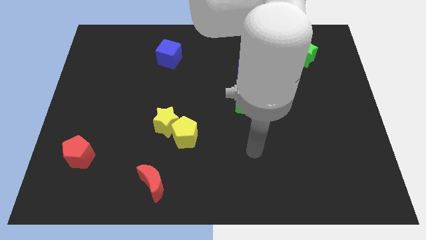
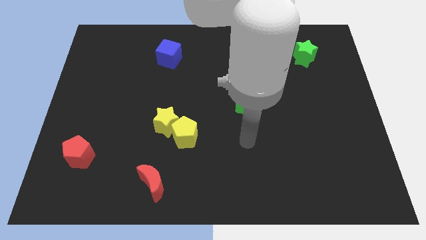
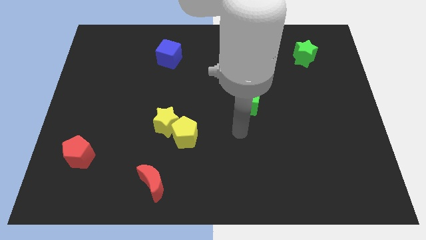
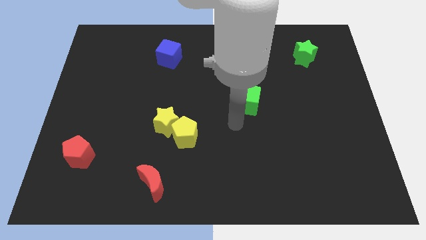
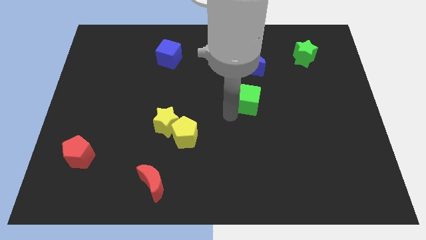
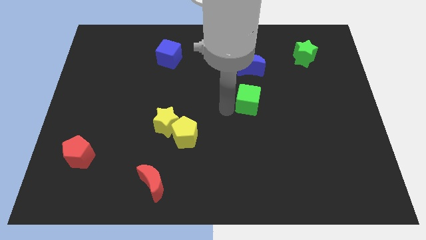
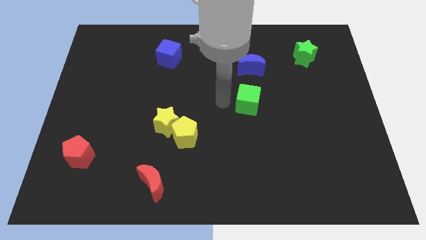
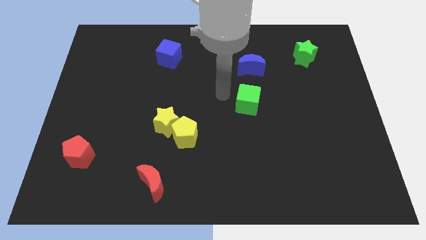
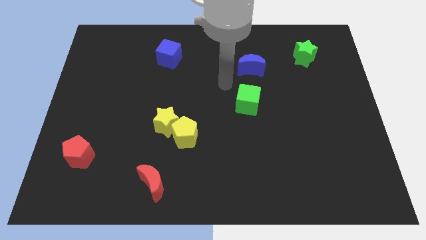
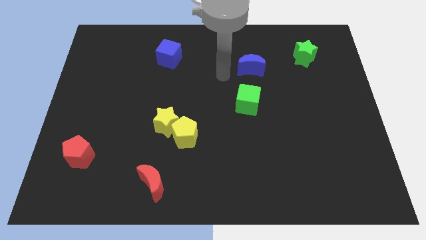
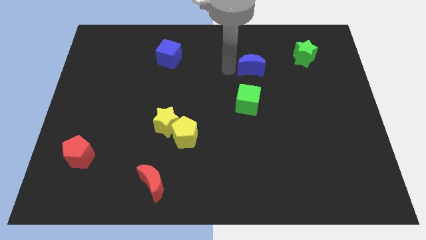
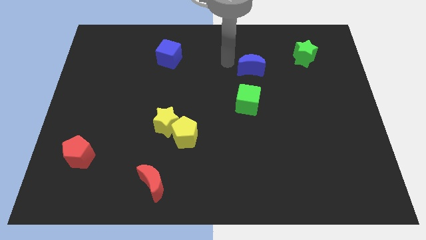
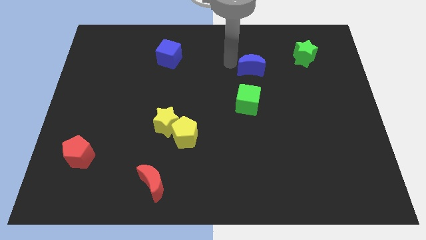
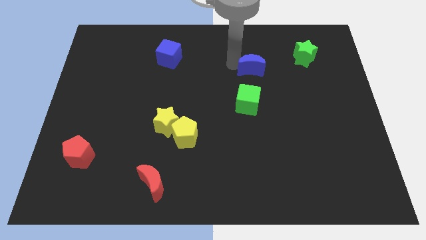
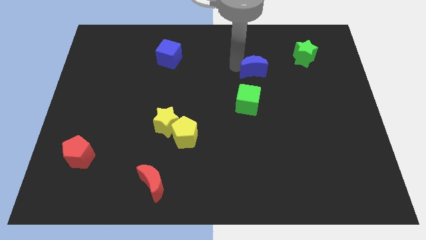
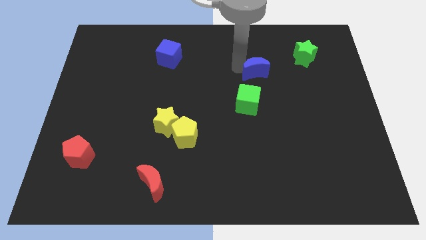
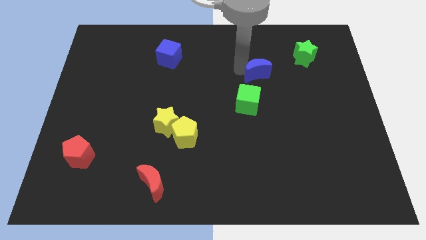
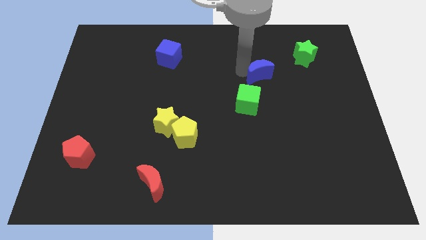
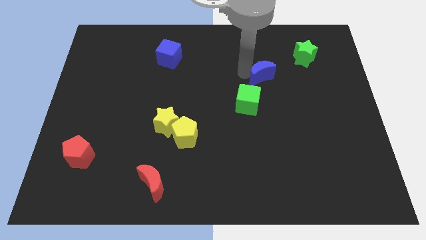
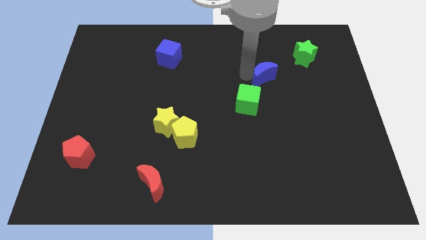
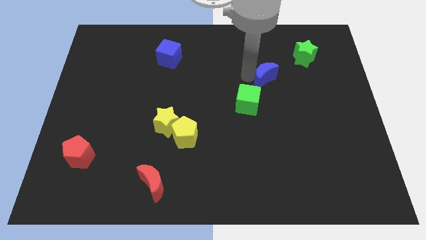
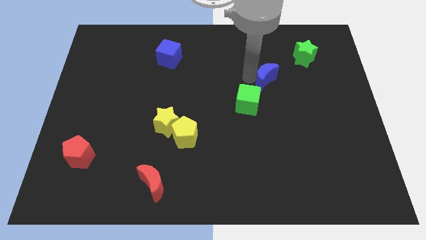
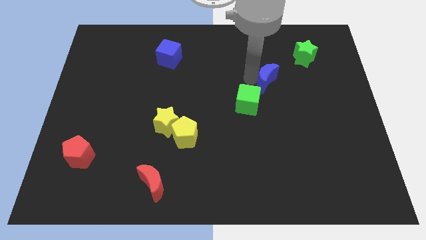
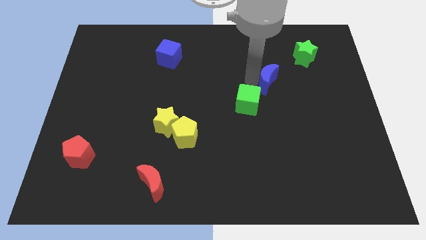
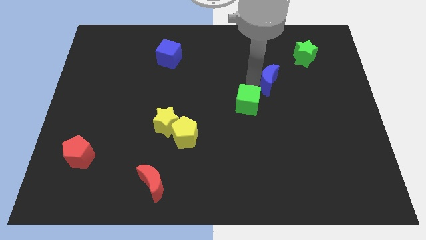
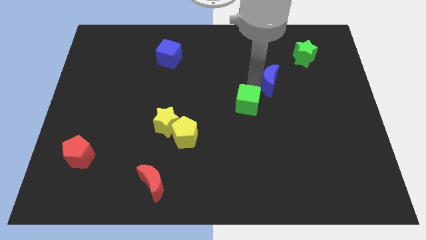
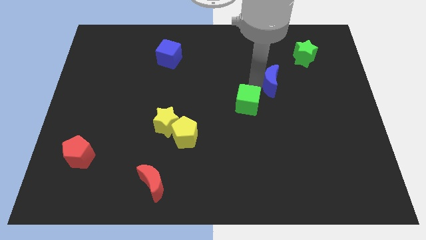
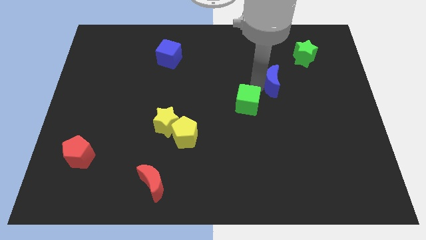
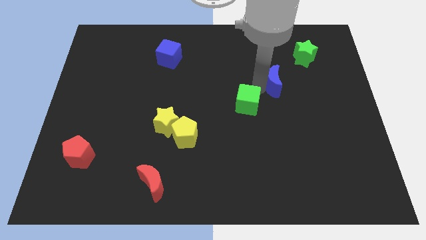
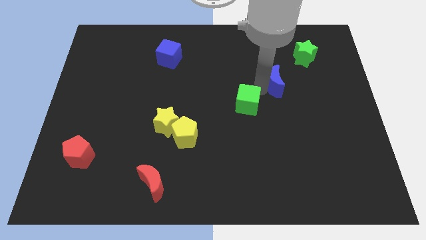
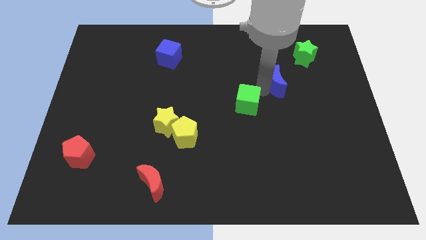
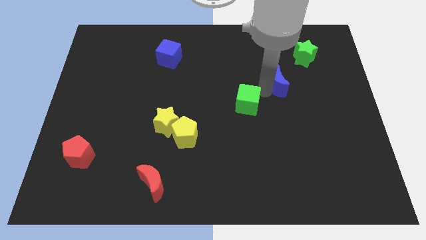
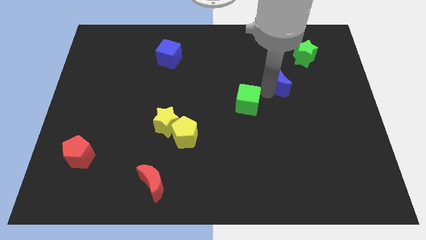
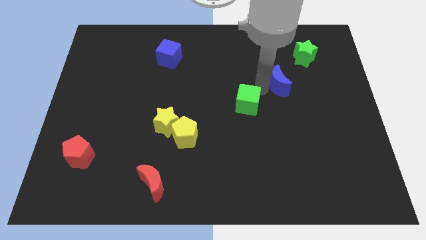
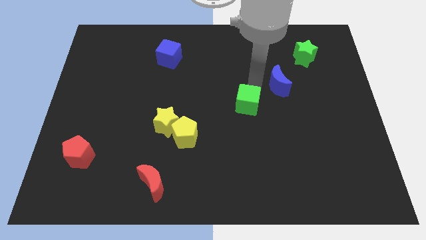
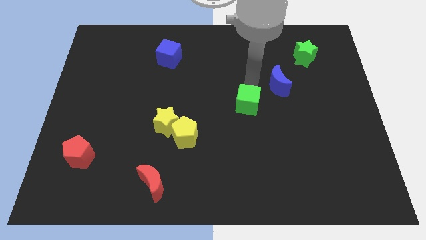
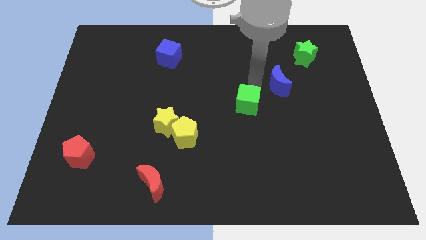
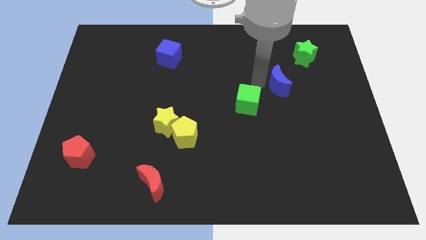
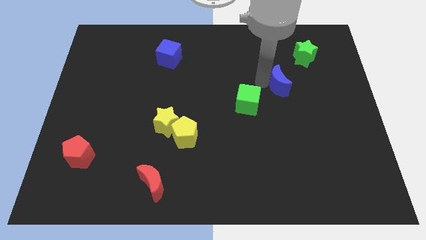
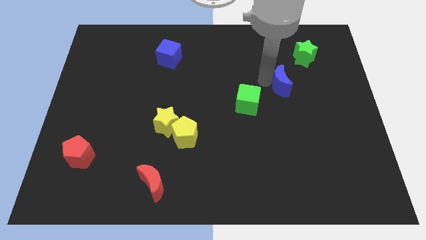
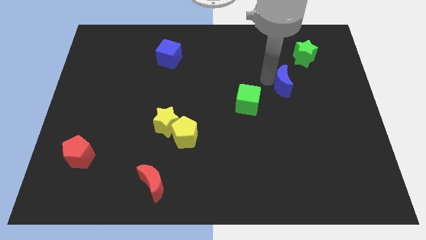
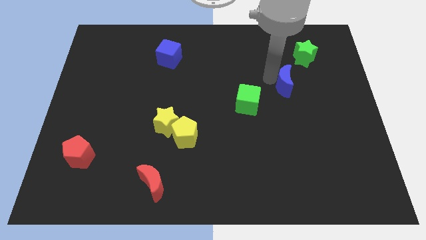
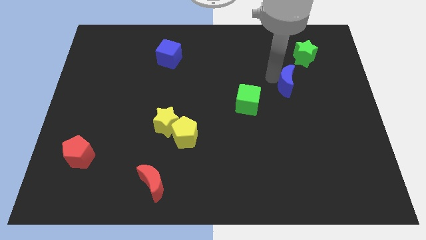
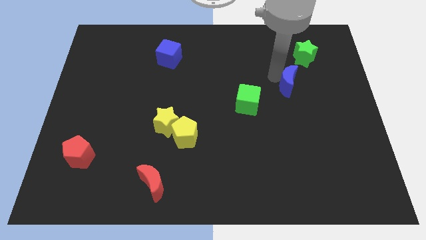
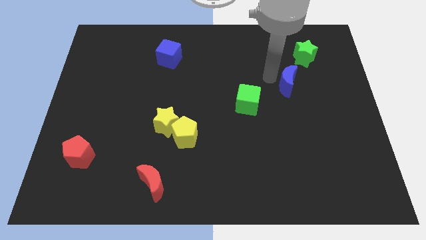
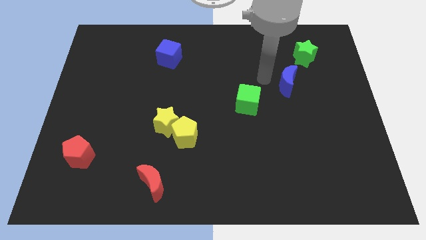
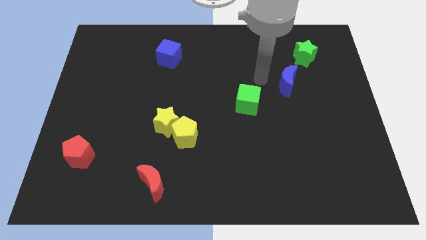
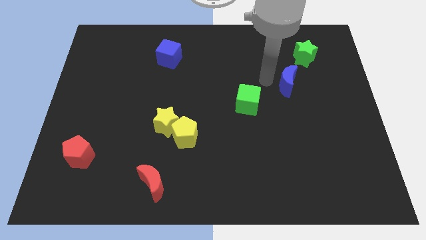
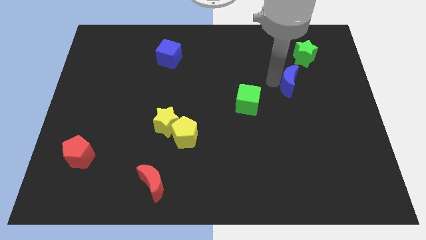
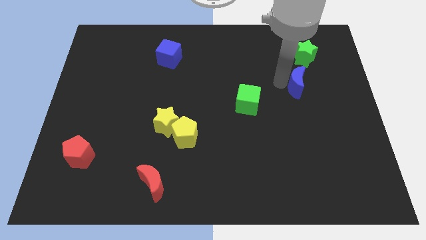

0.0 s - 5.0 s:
slide the blue moon to the bottom of the green star

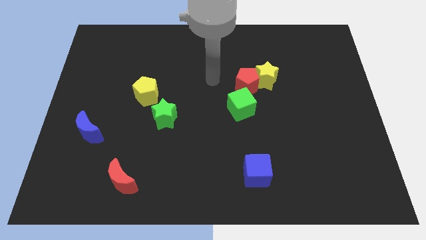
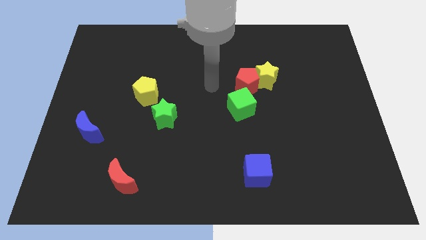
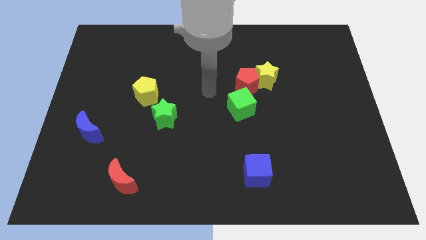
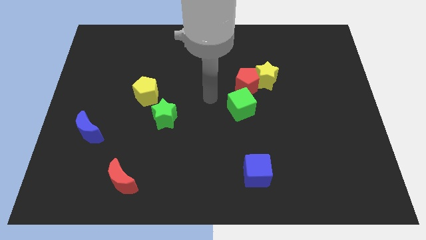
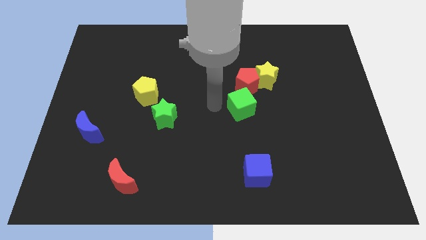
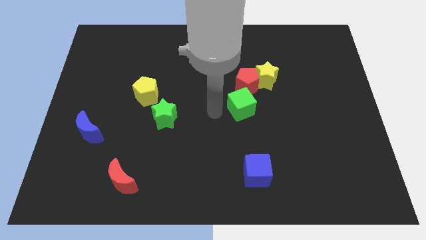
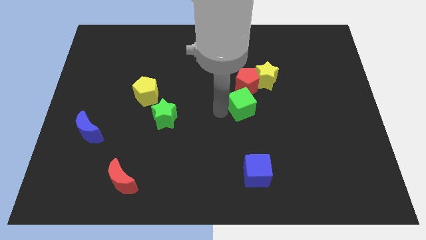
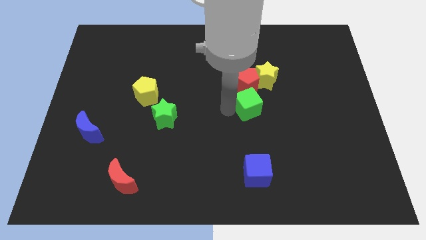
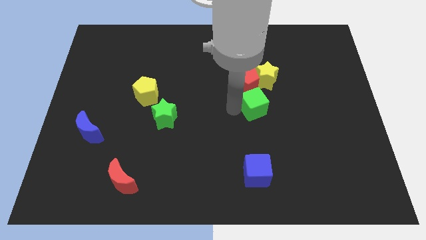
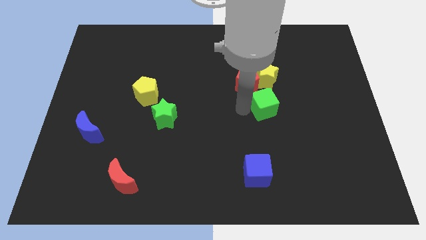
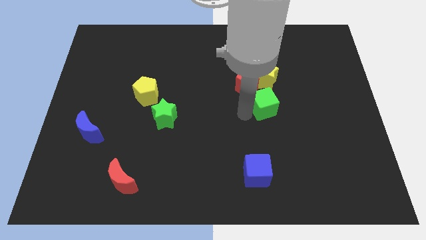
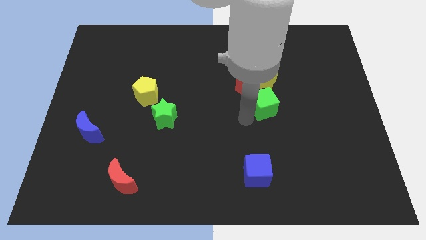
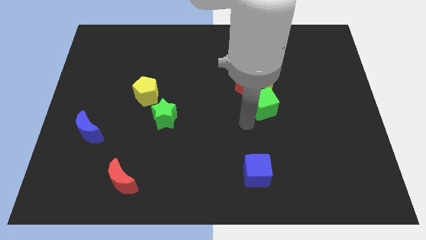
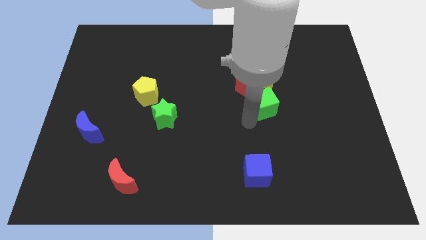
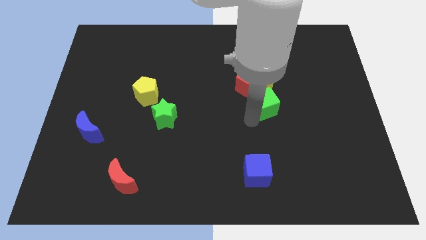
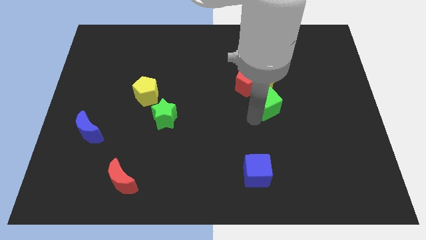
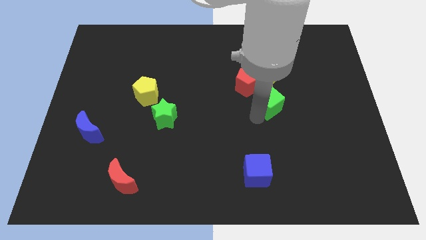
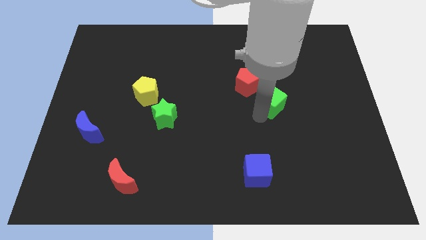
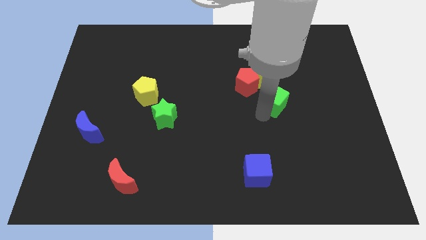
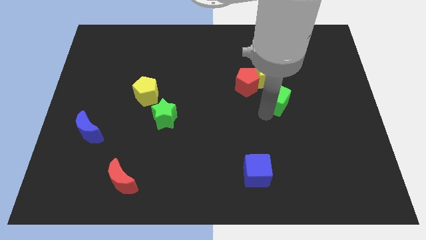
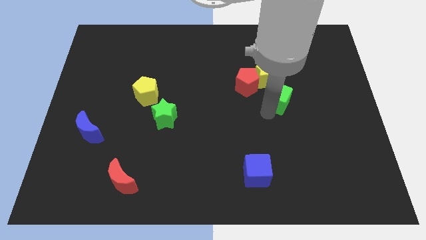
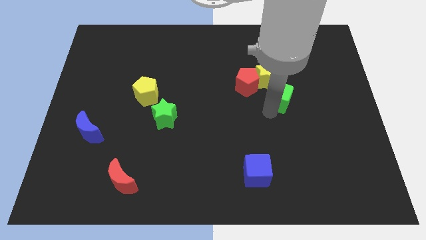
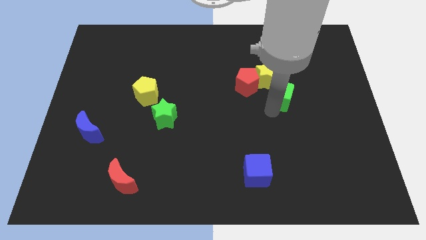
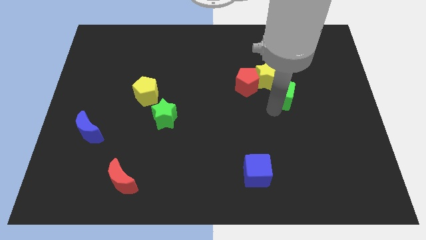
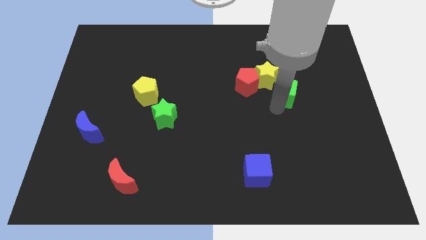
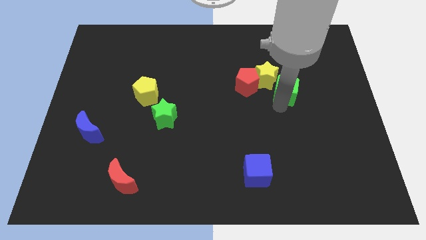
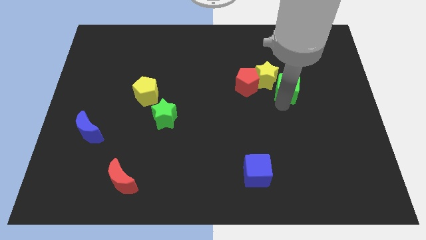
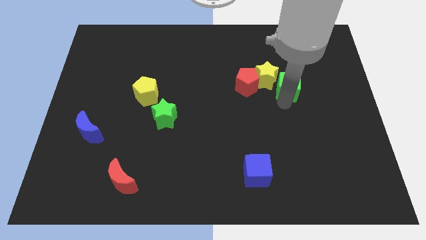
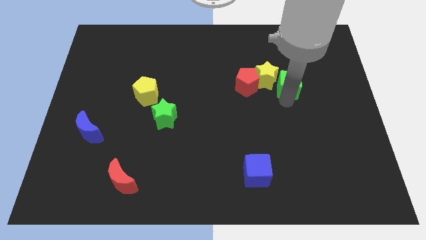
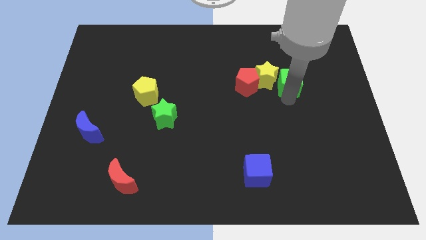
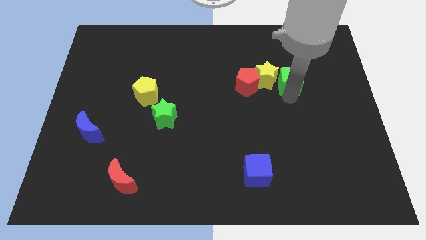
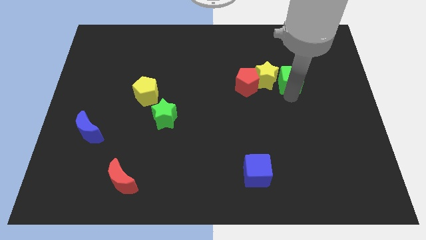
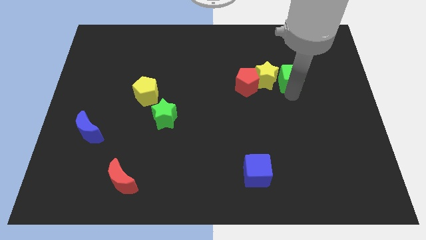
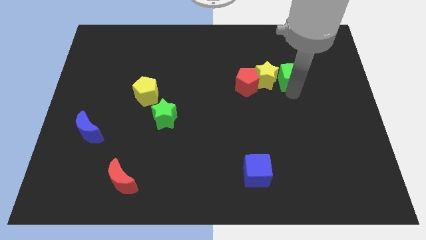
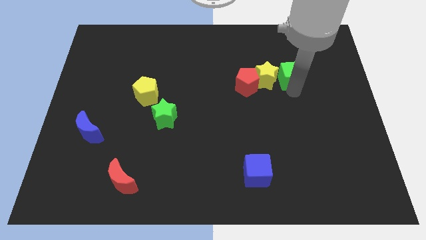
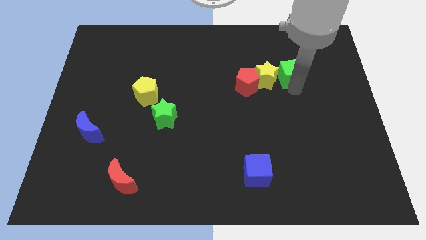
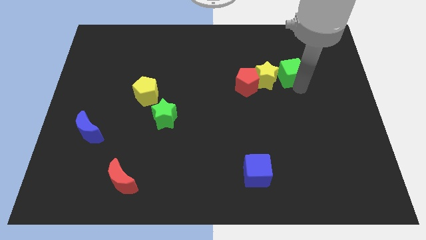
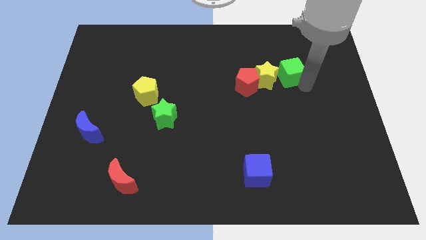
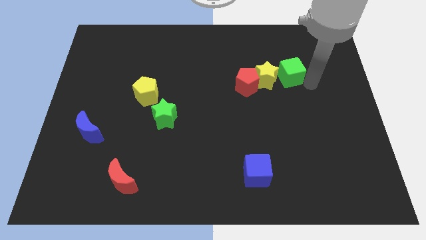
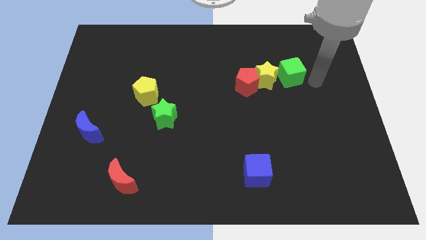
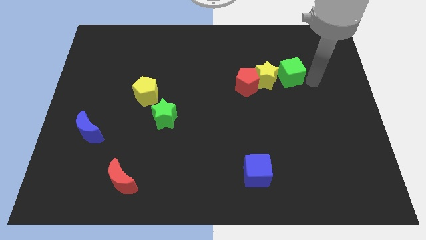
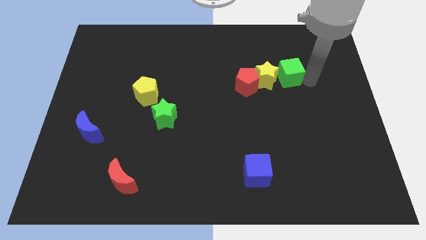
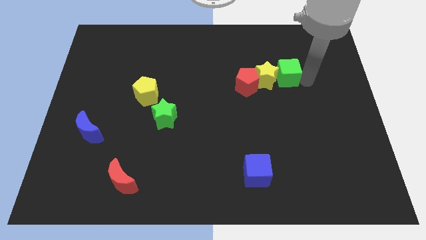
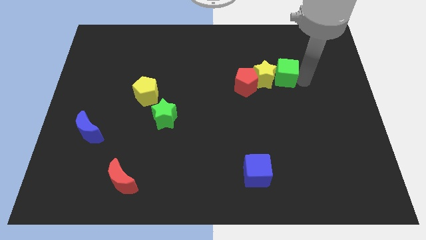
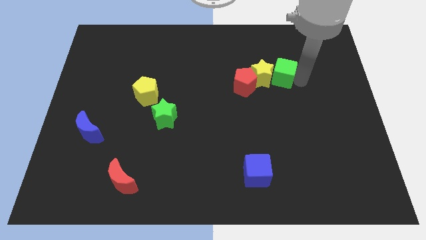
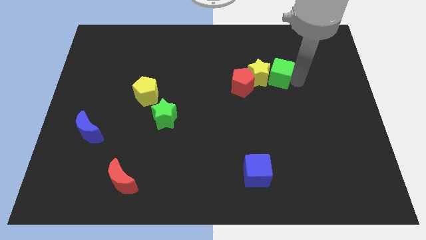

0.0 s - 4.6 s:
push the green cube to the top right of the red pentagon
